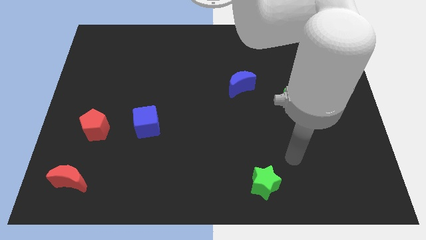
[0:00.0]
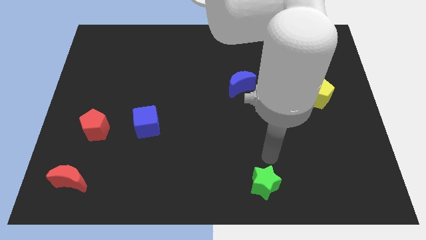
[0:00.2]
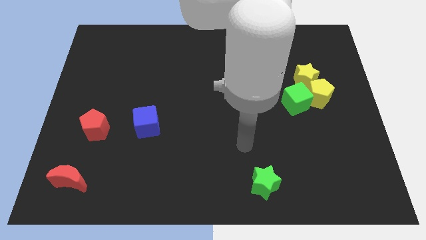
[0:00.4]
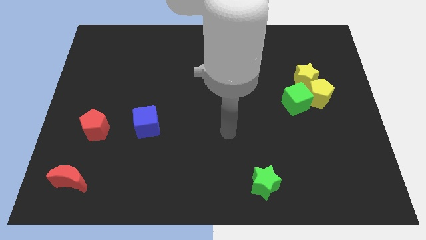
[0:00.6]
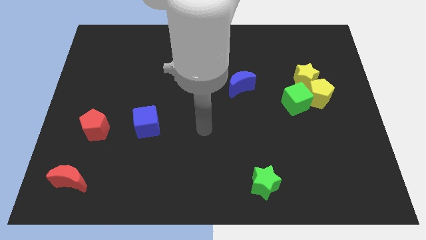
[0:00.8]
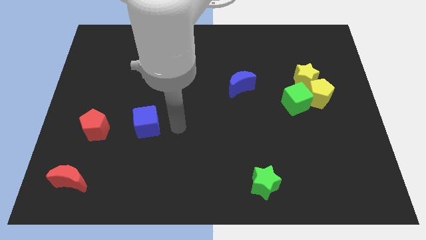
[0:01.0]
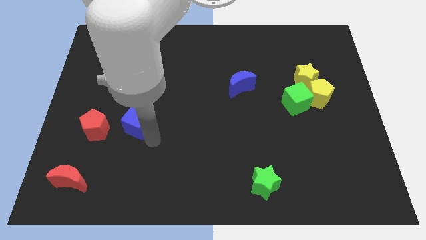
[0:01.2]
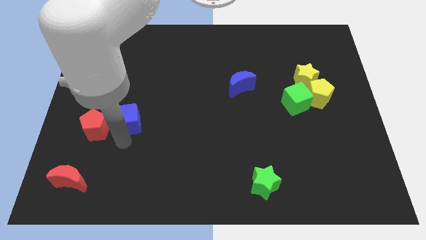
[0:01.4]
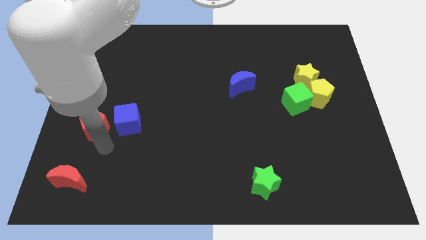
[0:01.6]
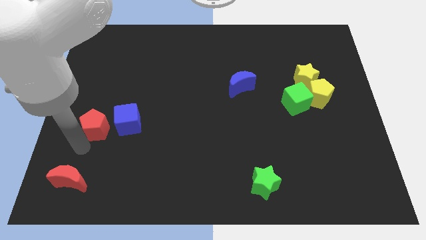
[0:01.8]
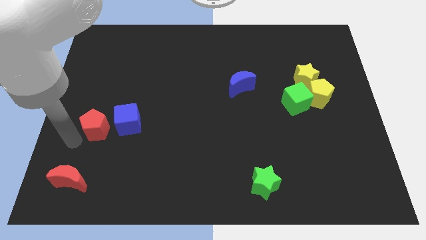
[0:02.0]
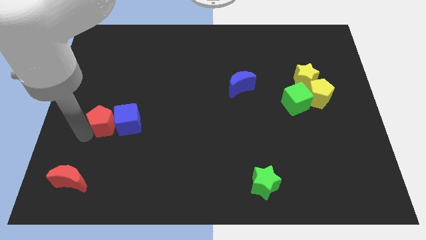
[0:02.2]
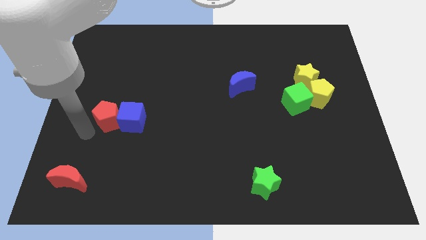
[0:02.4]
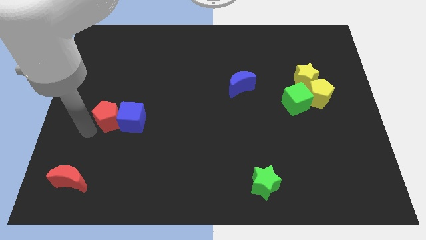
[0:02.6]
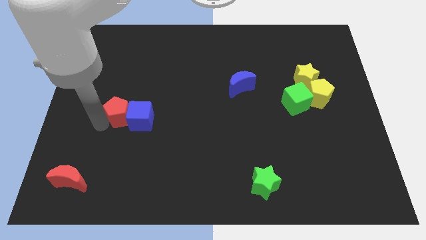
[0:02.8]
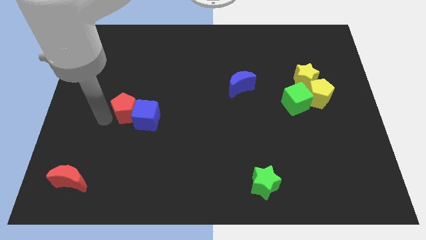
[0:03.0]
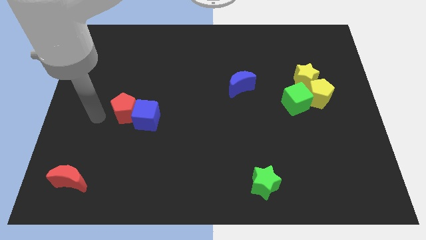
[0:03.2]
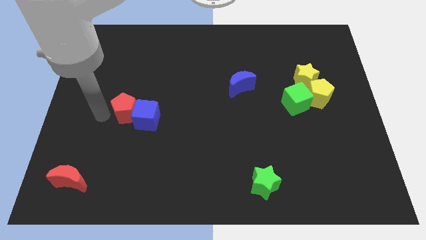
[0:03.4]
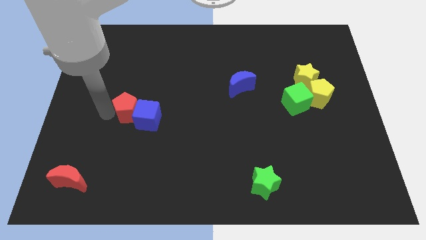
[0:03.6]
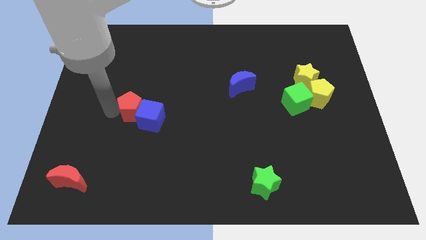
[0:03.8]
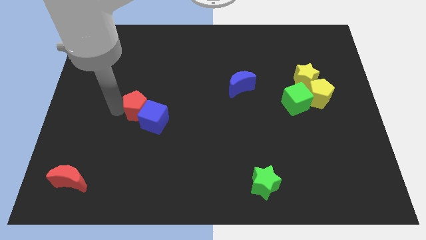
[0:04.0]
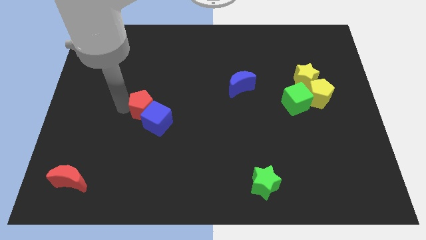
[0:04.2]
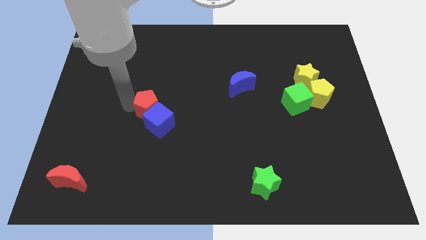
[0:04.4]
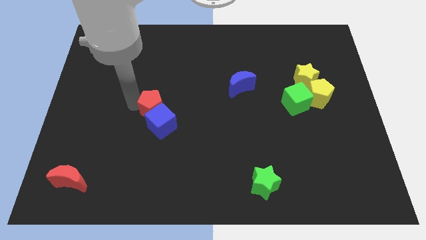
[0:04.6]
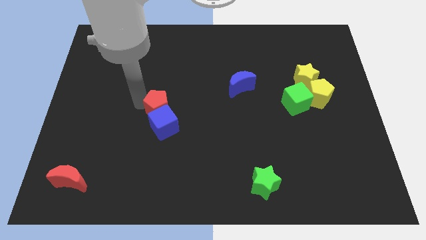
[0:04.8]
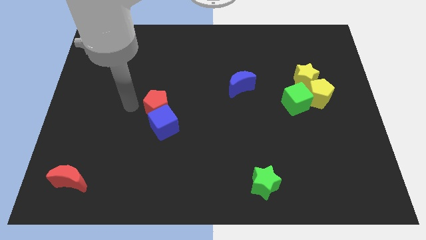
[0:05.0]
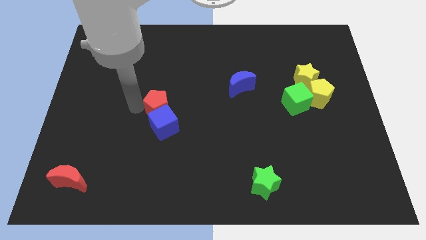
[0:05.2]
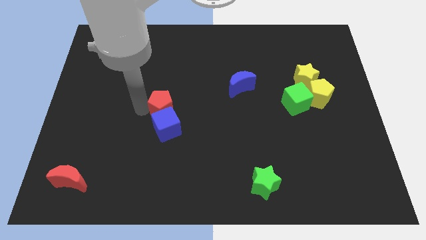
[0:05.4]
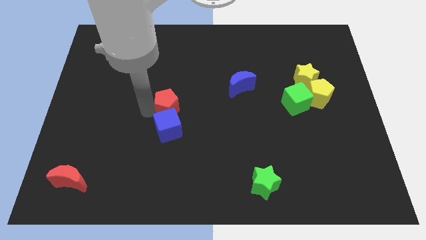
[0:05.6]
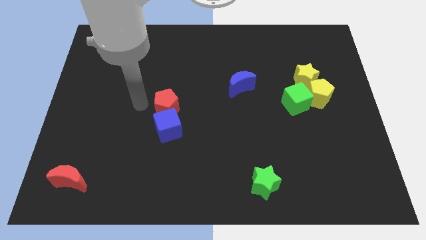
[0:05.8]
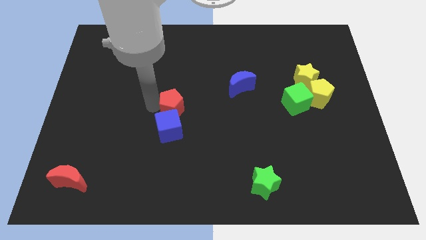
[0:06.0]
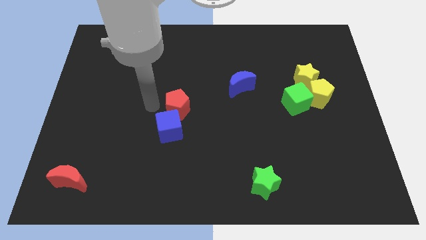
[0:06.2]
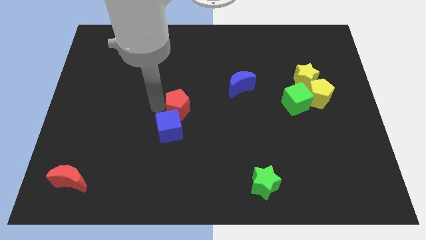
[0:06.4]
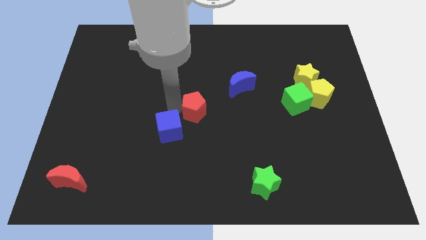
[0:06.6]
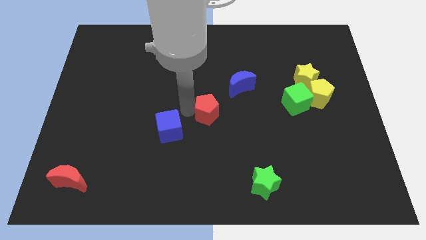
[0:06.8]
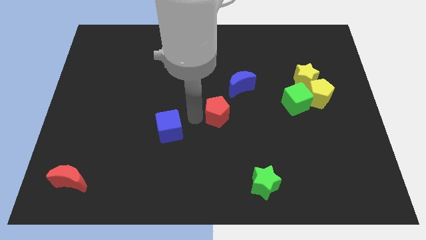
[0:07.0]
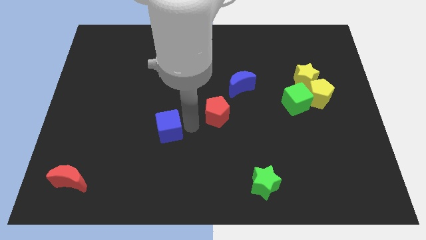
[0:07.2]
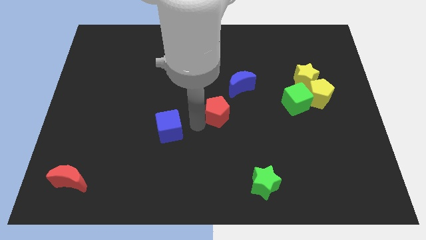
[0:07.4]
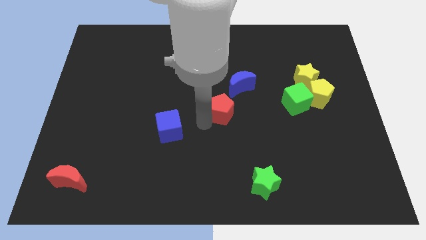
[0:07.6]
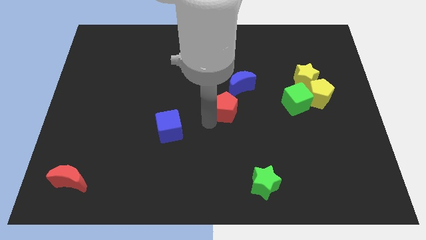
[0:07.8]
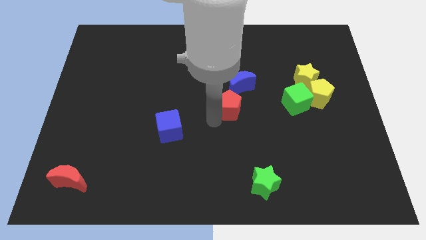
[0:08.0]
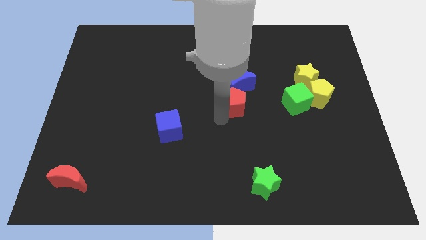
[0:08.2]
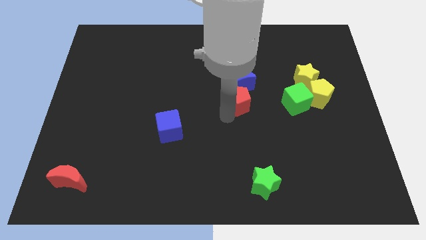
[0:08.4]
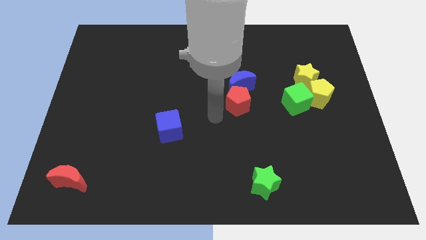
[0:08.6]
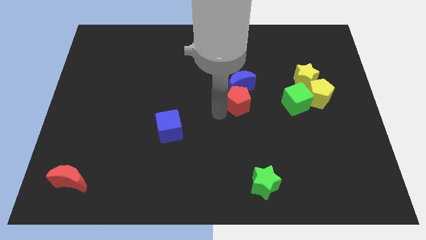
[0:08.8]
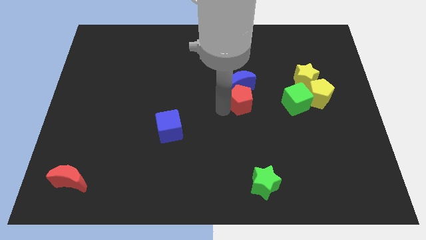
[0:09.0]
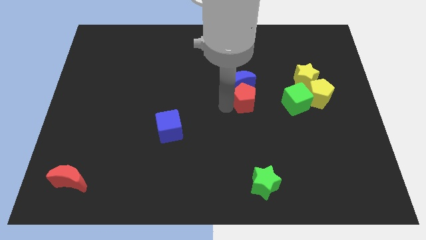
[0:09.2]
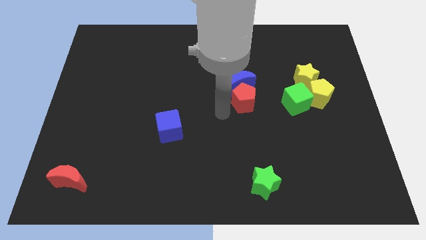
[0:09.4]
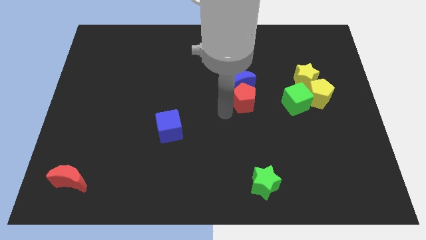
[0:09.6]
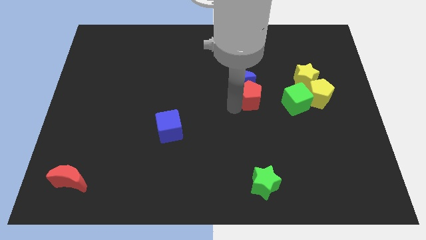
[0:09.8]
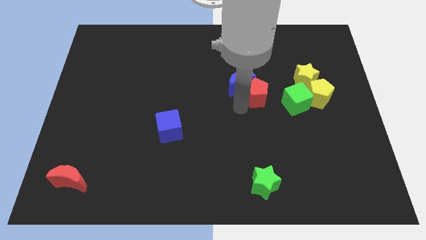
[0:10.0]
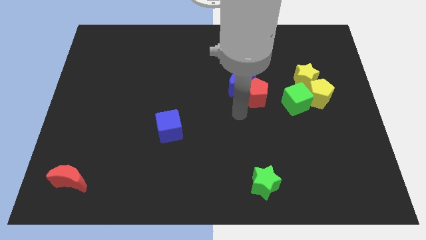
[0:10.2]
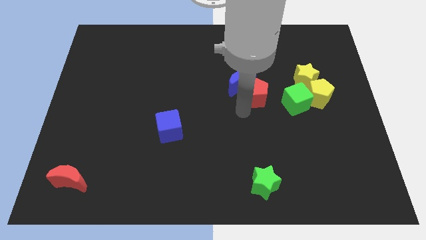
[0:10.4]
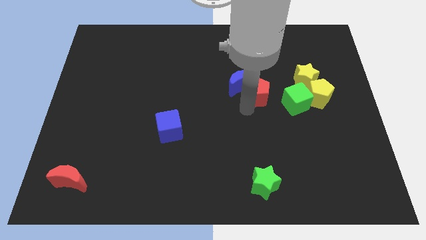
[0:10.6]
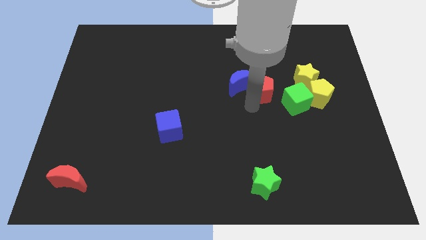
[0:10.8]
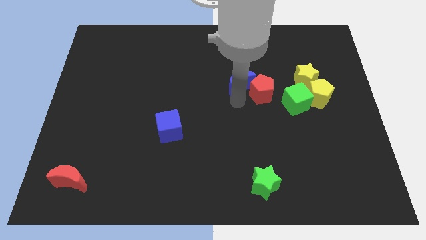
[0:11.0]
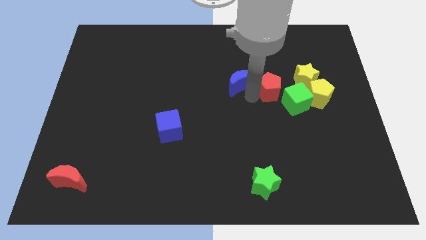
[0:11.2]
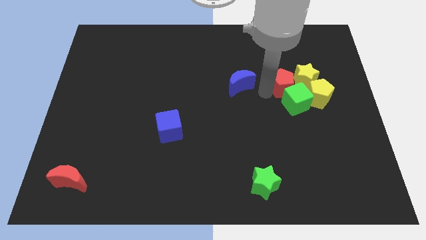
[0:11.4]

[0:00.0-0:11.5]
push the red pentagon to the top left side of the yellow pentagon
